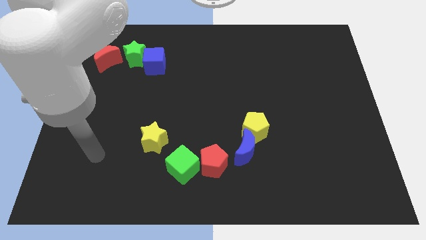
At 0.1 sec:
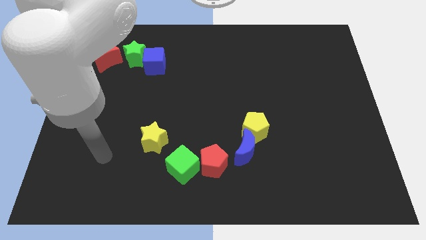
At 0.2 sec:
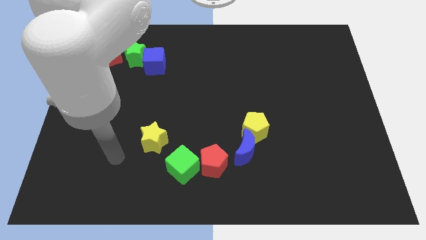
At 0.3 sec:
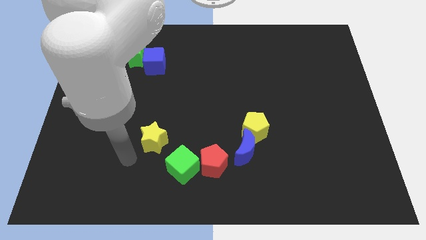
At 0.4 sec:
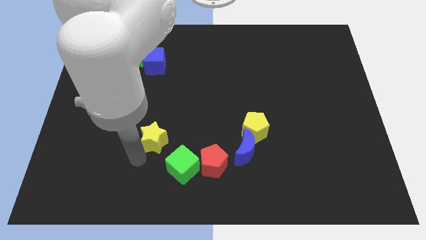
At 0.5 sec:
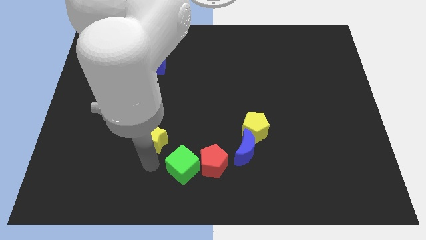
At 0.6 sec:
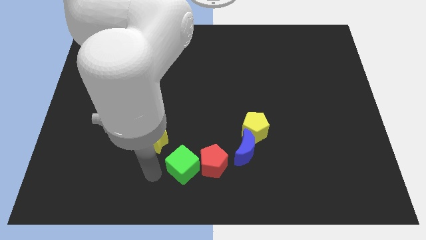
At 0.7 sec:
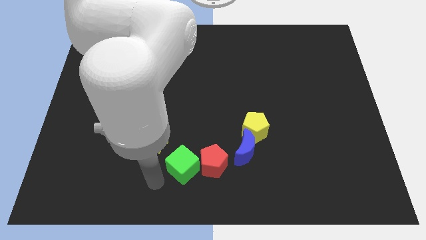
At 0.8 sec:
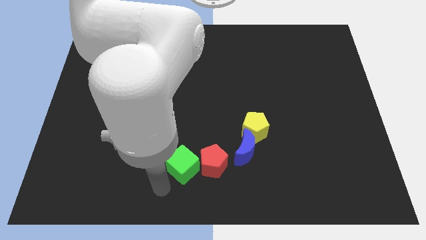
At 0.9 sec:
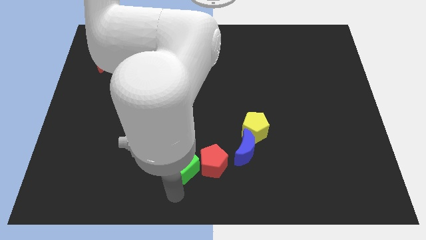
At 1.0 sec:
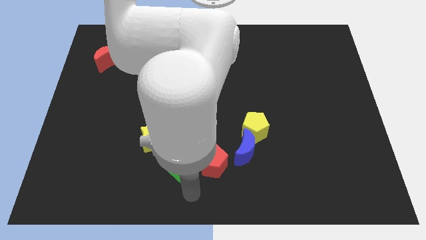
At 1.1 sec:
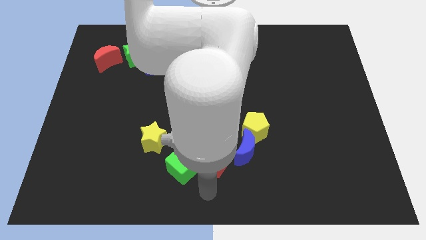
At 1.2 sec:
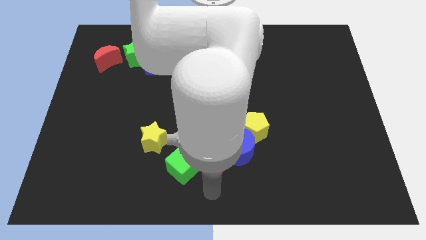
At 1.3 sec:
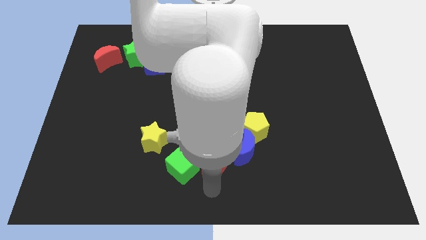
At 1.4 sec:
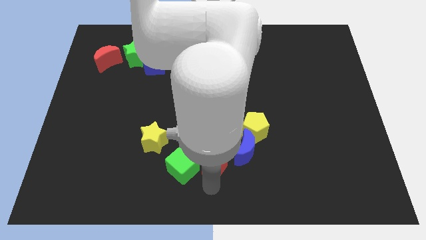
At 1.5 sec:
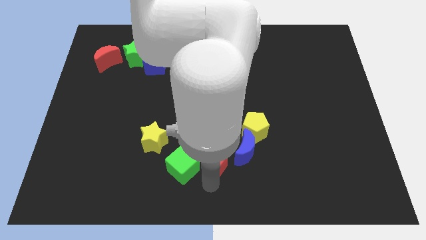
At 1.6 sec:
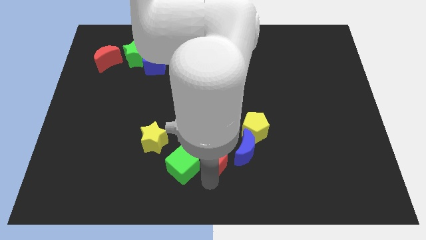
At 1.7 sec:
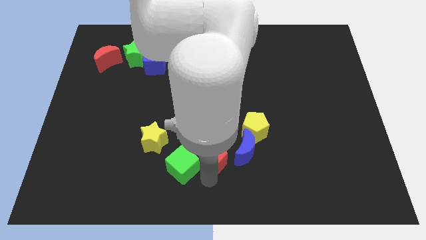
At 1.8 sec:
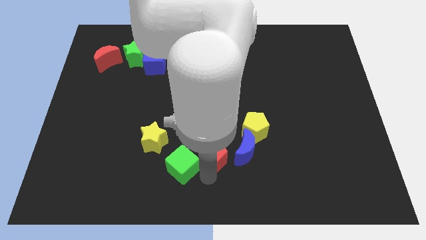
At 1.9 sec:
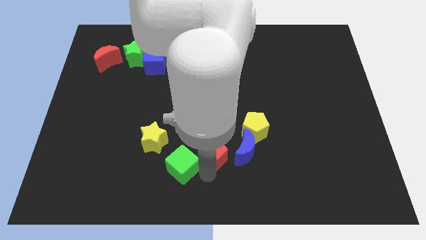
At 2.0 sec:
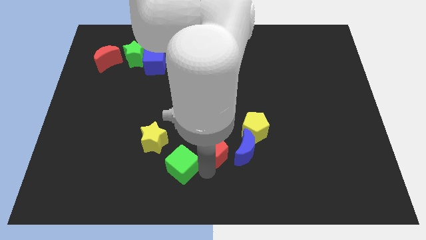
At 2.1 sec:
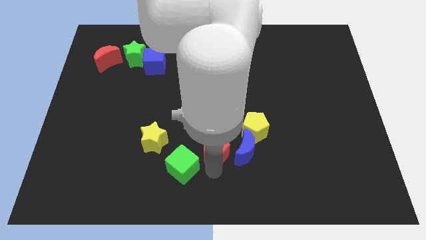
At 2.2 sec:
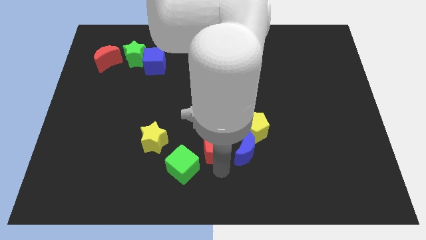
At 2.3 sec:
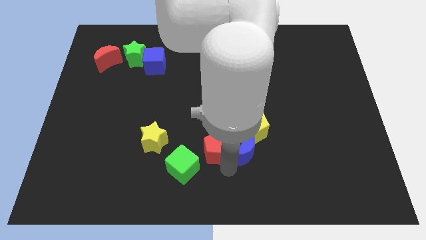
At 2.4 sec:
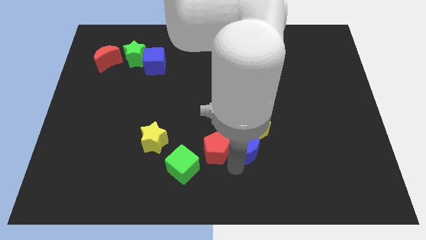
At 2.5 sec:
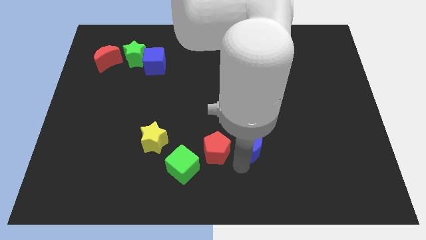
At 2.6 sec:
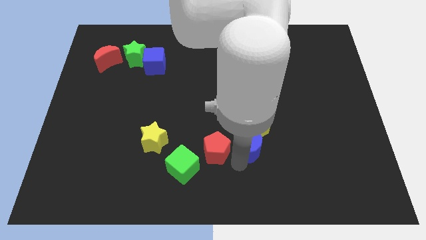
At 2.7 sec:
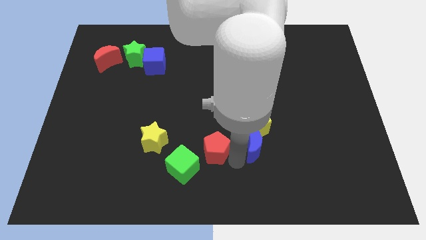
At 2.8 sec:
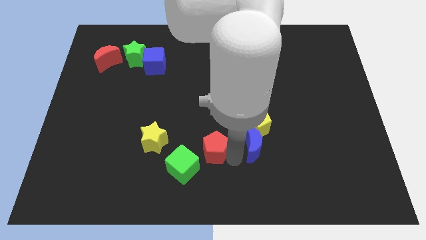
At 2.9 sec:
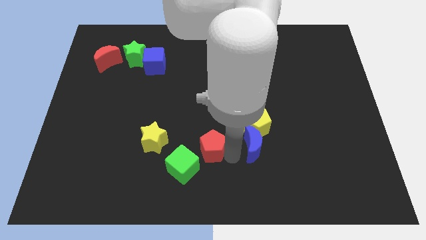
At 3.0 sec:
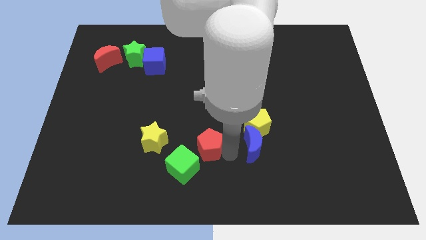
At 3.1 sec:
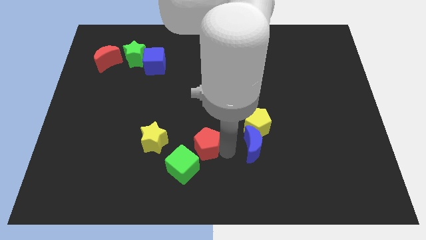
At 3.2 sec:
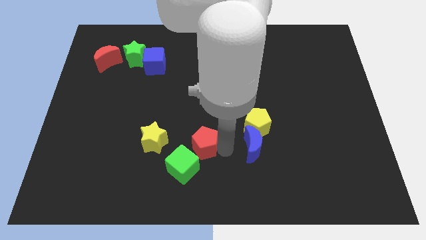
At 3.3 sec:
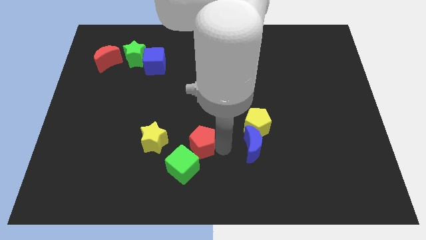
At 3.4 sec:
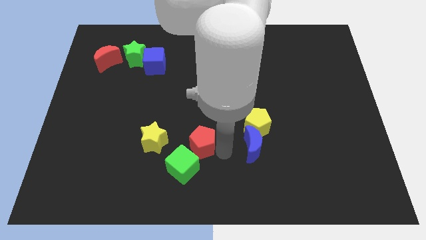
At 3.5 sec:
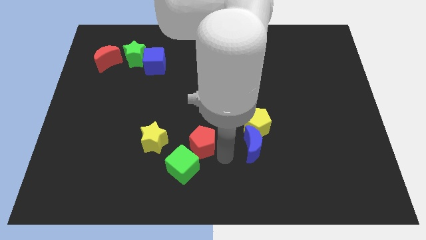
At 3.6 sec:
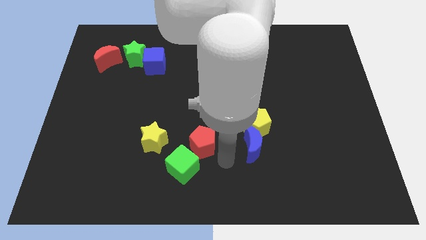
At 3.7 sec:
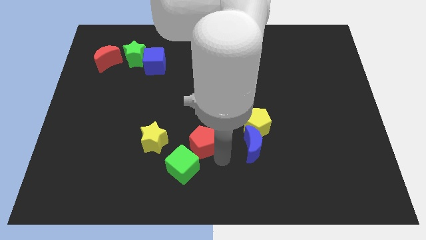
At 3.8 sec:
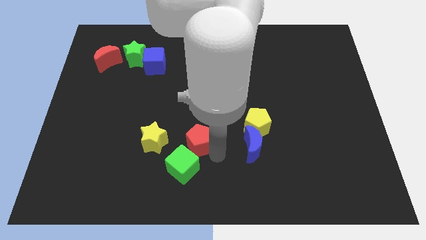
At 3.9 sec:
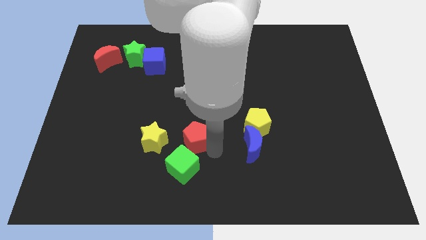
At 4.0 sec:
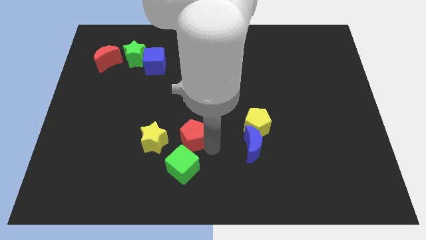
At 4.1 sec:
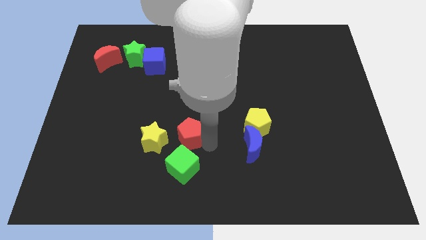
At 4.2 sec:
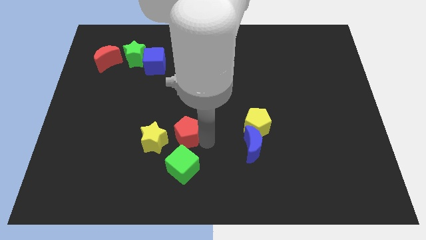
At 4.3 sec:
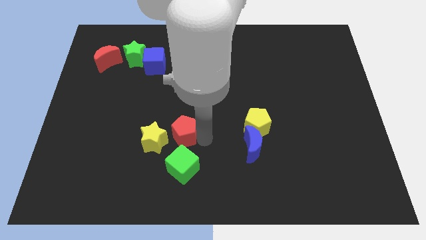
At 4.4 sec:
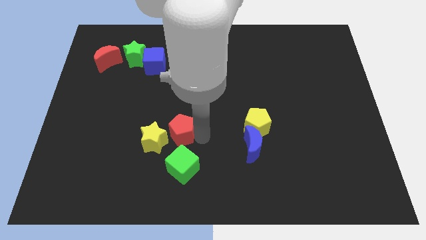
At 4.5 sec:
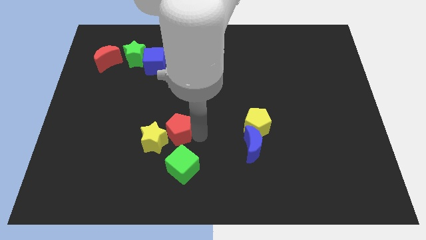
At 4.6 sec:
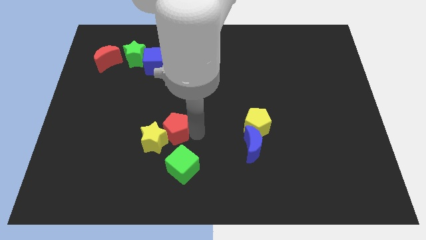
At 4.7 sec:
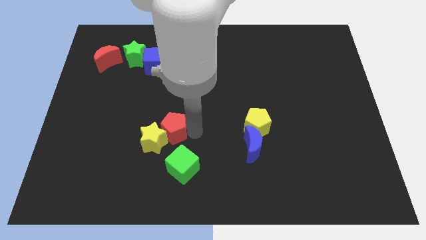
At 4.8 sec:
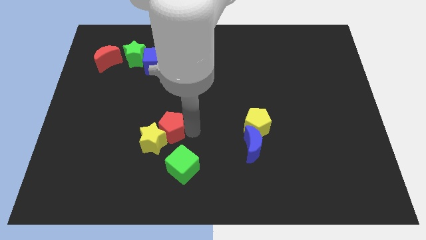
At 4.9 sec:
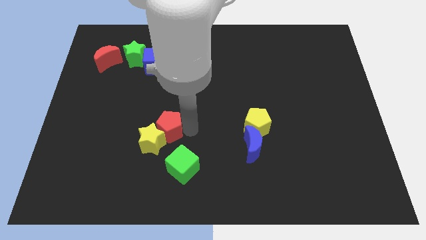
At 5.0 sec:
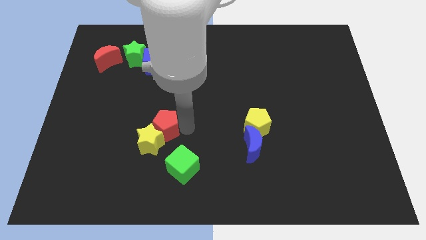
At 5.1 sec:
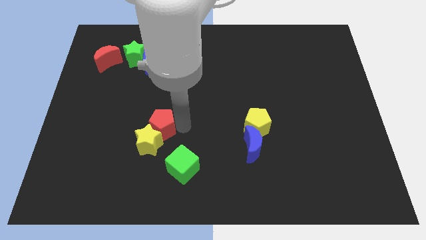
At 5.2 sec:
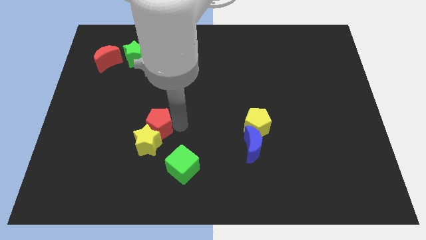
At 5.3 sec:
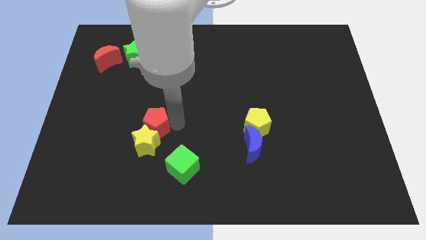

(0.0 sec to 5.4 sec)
push the red pentagon diagonally up and to the left of the yellow star

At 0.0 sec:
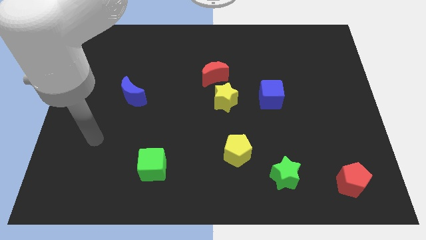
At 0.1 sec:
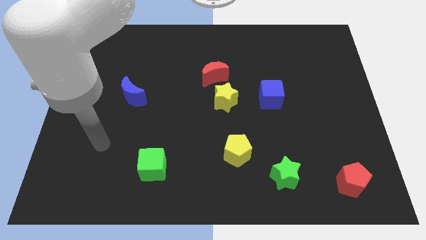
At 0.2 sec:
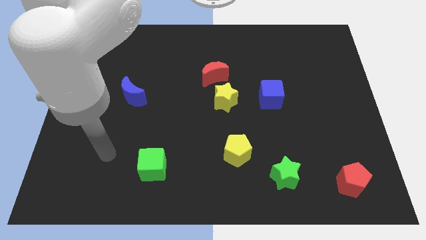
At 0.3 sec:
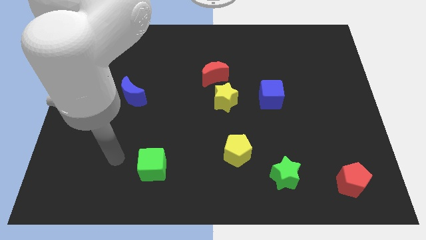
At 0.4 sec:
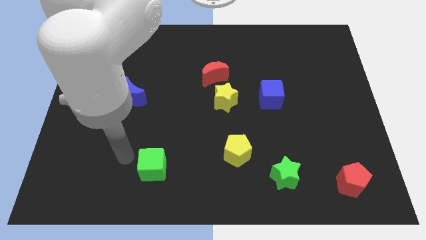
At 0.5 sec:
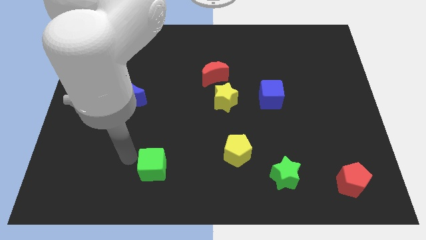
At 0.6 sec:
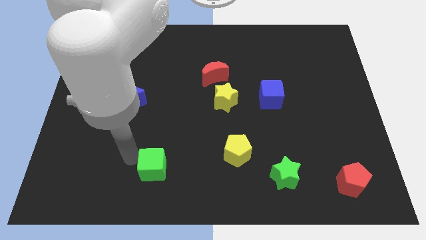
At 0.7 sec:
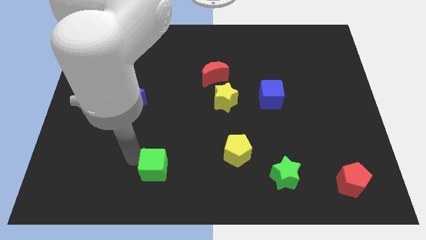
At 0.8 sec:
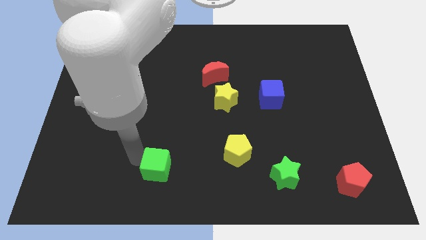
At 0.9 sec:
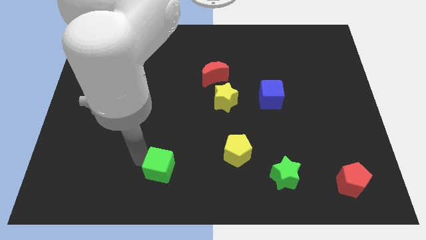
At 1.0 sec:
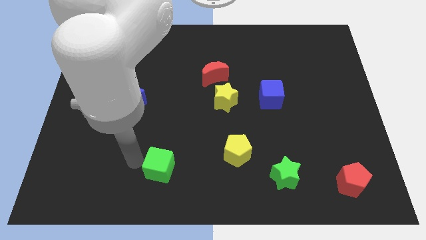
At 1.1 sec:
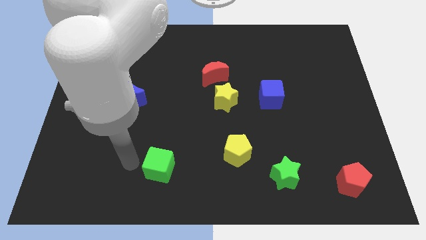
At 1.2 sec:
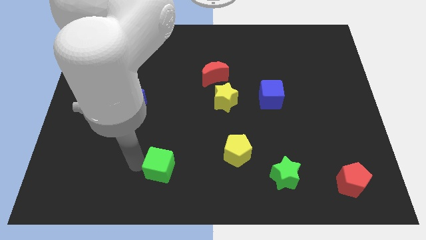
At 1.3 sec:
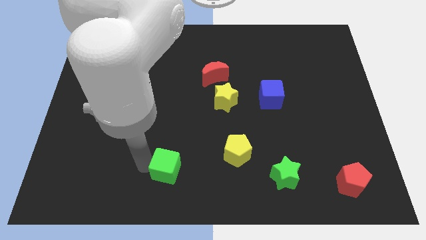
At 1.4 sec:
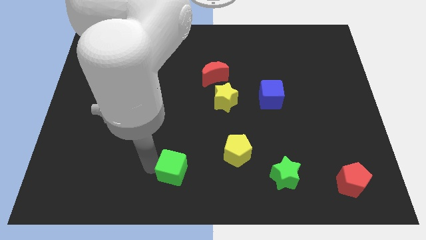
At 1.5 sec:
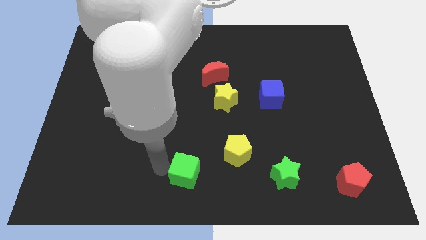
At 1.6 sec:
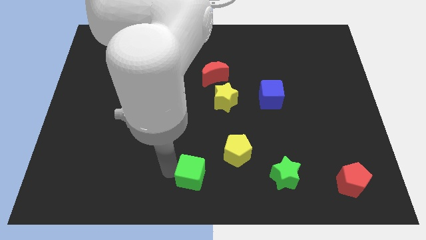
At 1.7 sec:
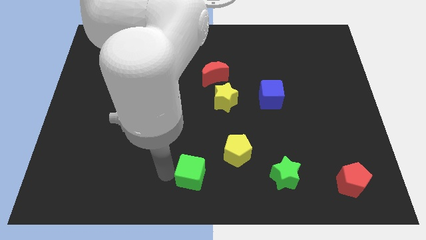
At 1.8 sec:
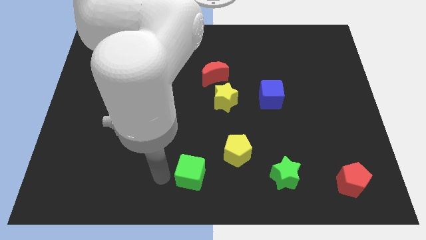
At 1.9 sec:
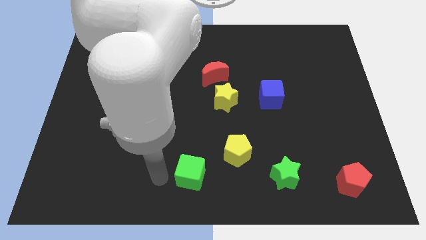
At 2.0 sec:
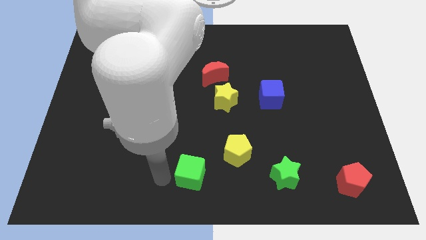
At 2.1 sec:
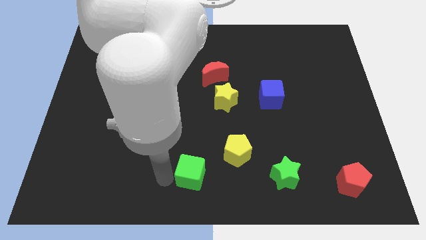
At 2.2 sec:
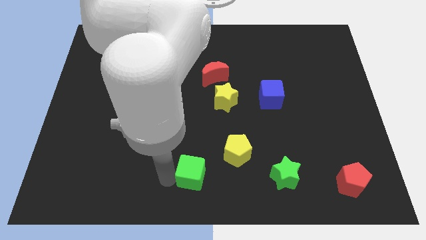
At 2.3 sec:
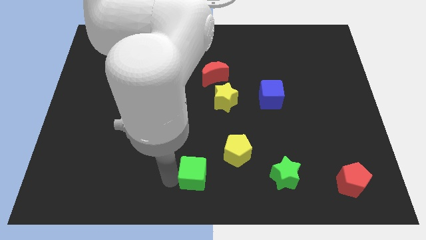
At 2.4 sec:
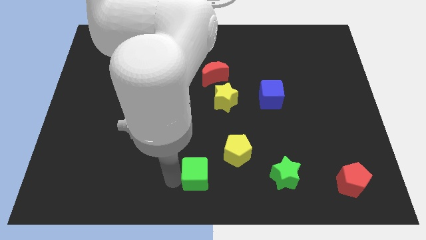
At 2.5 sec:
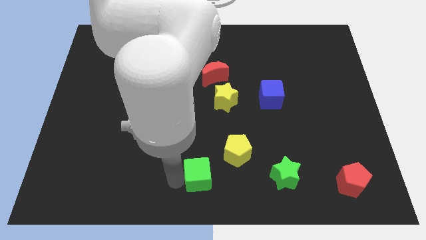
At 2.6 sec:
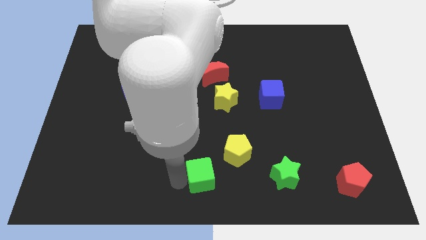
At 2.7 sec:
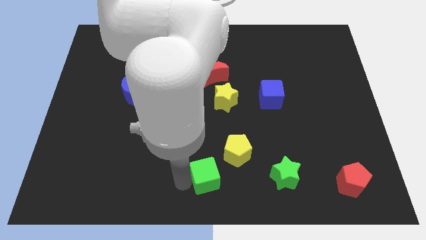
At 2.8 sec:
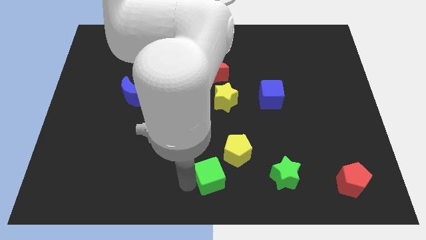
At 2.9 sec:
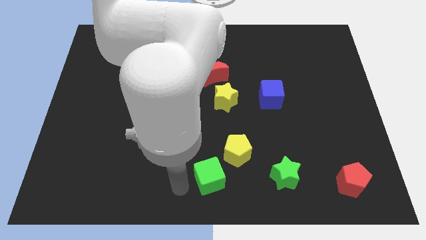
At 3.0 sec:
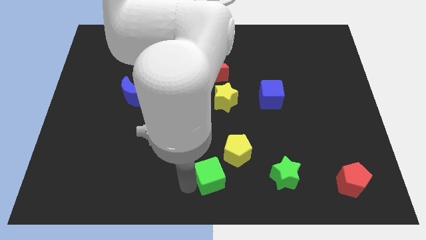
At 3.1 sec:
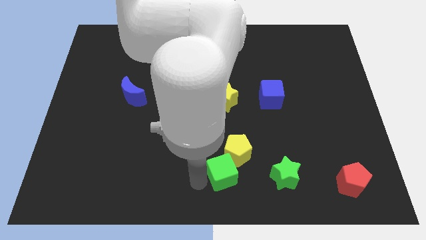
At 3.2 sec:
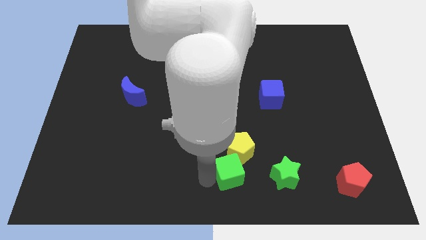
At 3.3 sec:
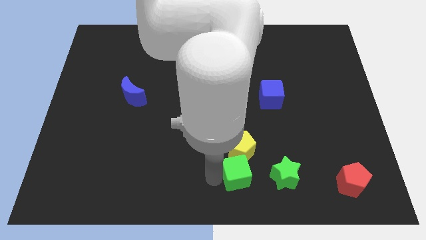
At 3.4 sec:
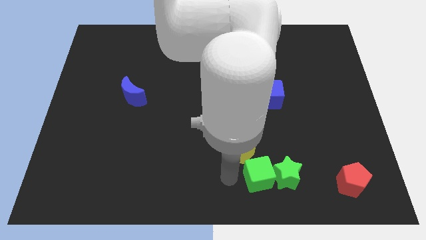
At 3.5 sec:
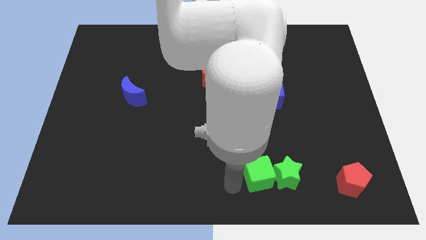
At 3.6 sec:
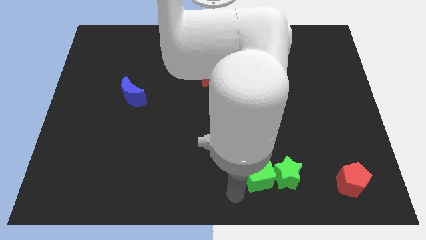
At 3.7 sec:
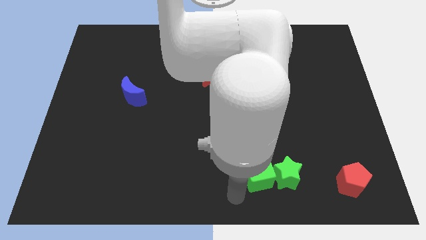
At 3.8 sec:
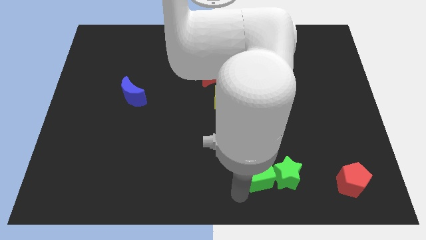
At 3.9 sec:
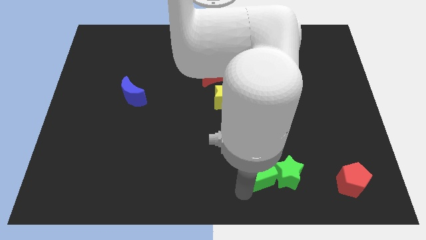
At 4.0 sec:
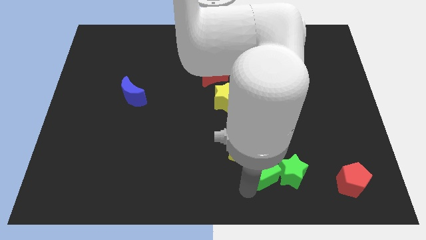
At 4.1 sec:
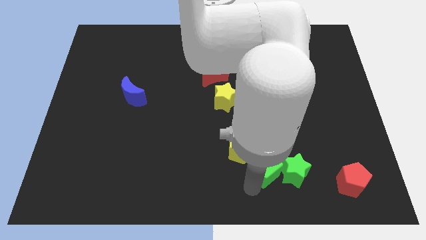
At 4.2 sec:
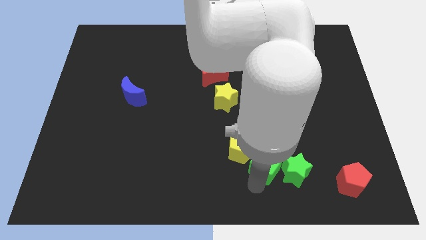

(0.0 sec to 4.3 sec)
move the green cube just right of the yellow pentagon
